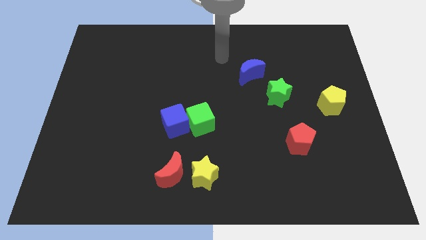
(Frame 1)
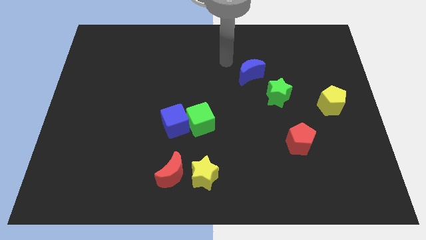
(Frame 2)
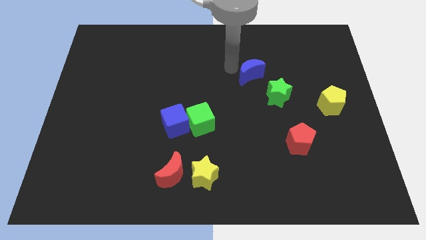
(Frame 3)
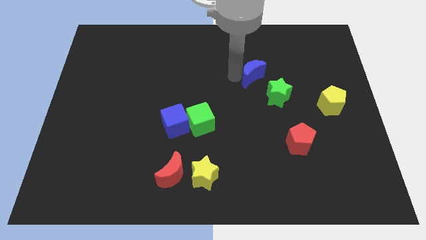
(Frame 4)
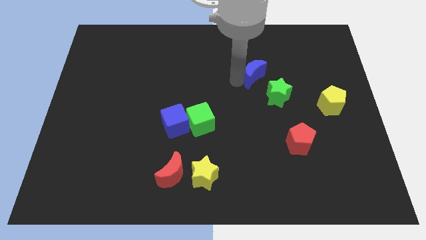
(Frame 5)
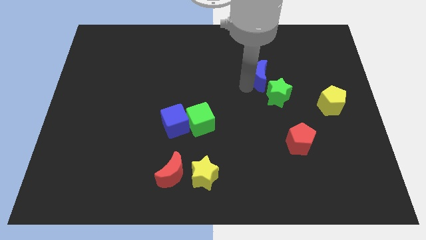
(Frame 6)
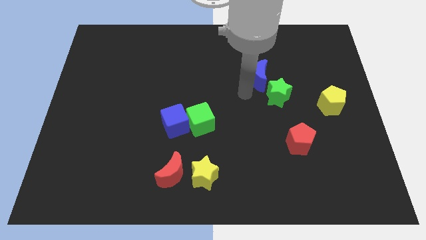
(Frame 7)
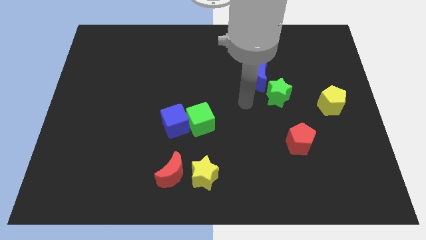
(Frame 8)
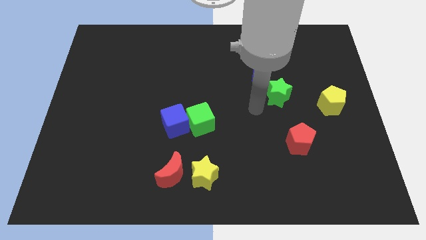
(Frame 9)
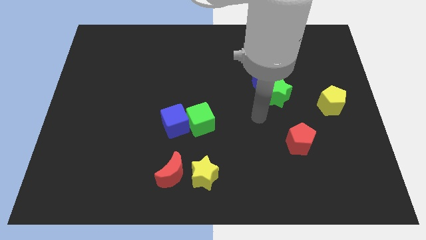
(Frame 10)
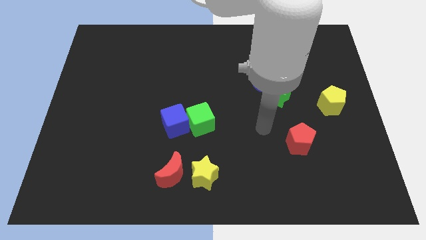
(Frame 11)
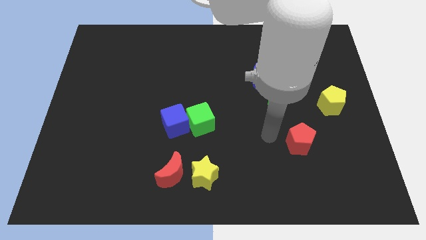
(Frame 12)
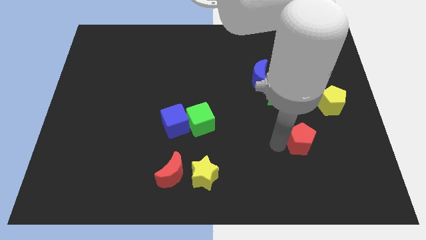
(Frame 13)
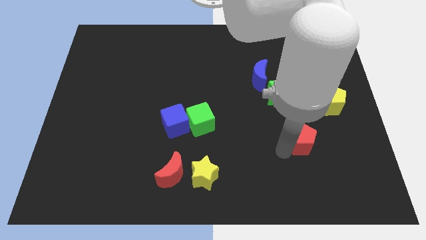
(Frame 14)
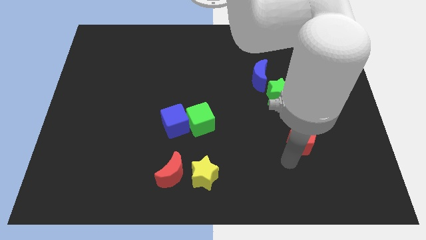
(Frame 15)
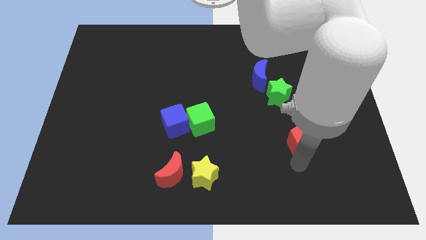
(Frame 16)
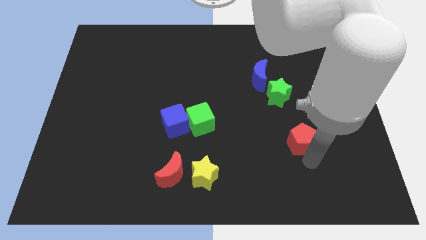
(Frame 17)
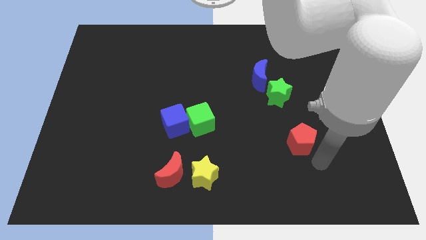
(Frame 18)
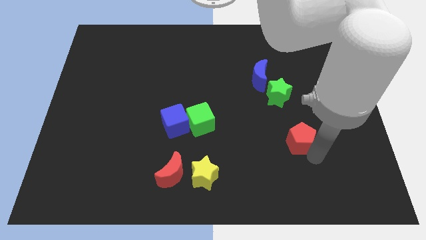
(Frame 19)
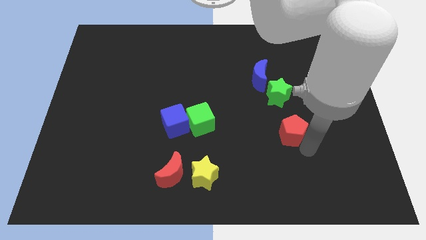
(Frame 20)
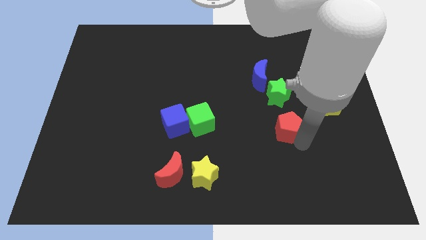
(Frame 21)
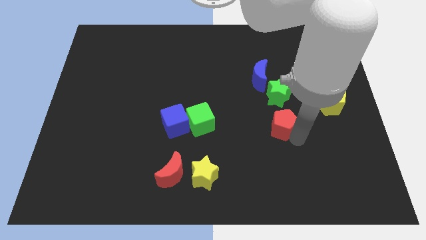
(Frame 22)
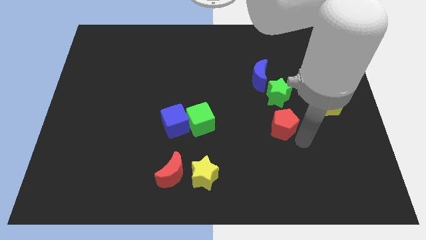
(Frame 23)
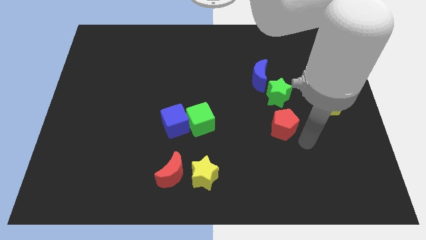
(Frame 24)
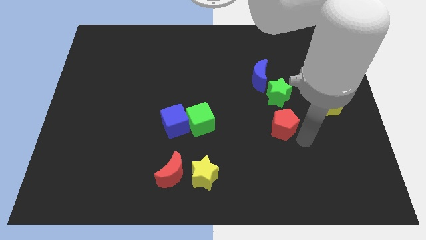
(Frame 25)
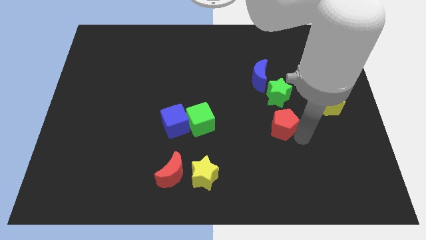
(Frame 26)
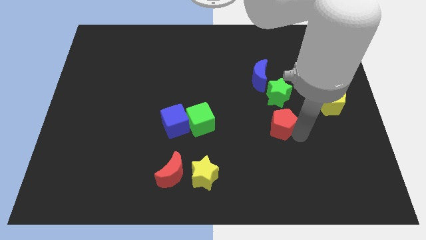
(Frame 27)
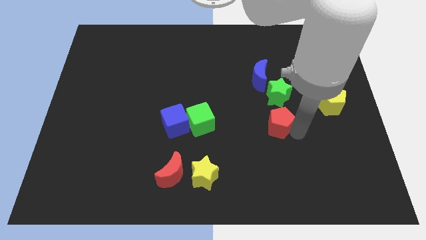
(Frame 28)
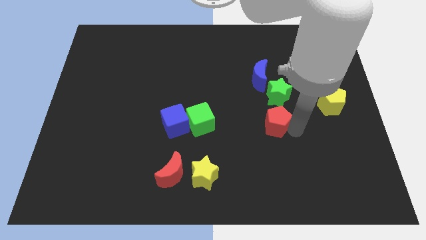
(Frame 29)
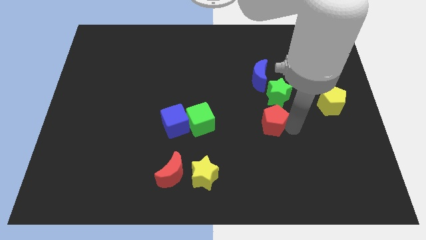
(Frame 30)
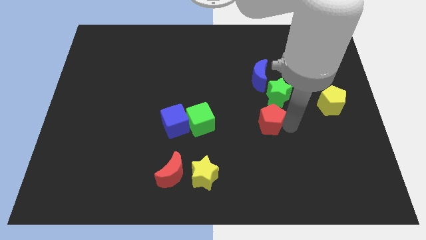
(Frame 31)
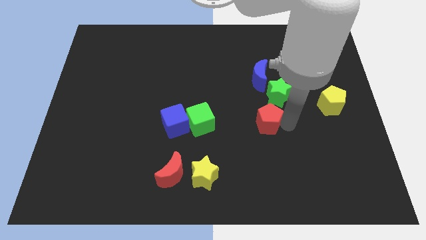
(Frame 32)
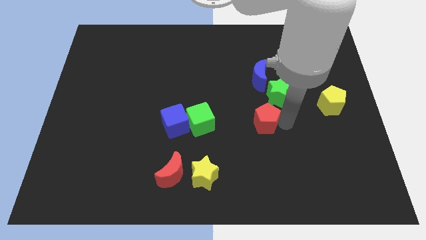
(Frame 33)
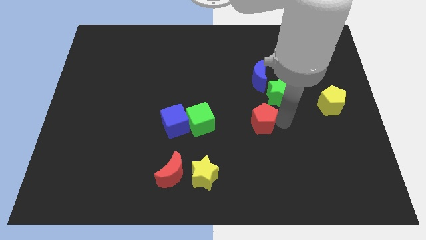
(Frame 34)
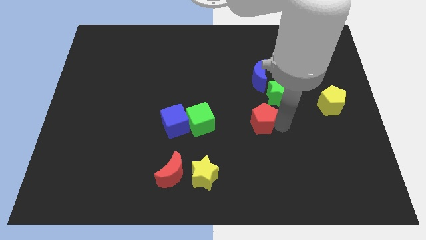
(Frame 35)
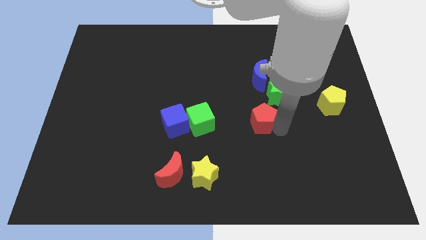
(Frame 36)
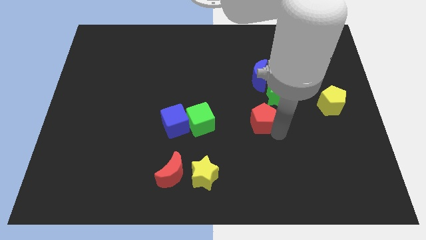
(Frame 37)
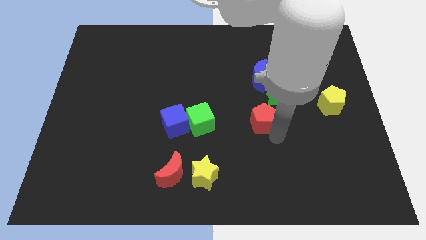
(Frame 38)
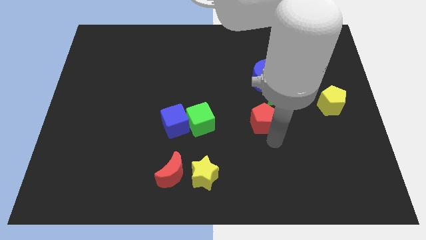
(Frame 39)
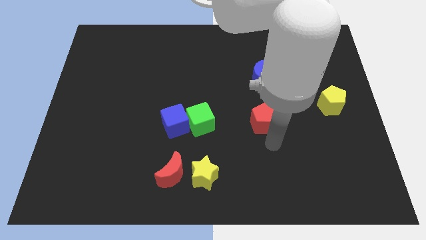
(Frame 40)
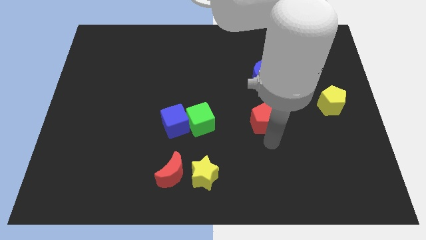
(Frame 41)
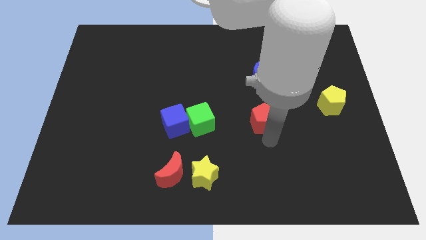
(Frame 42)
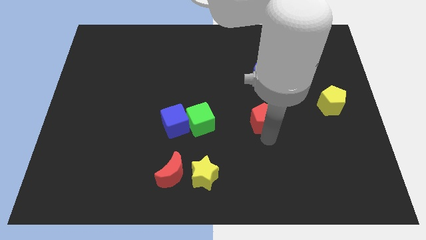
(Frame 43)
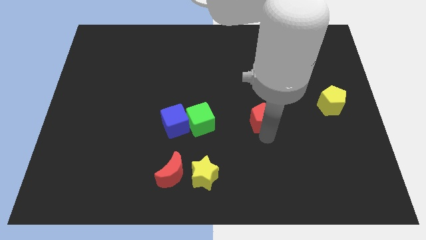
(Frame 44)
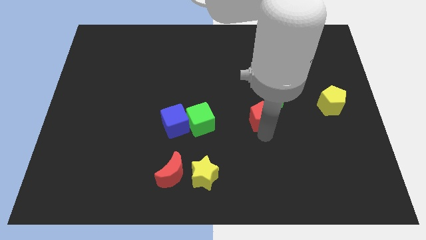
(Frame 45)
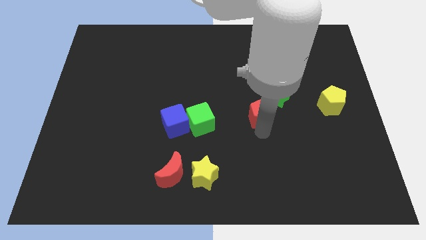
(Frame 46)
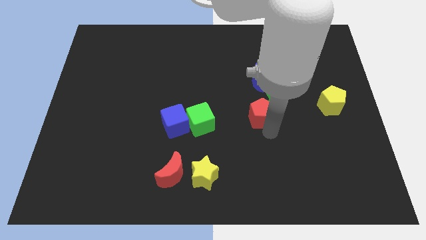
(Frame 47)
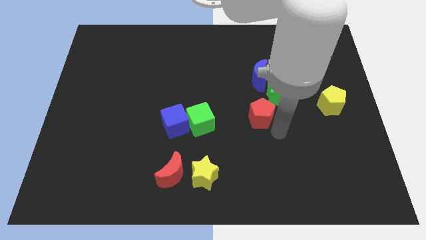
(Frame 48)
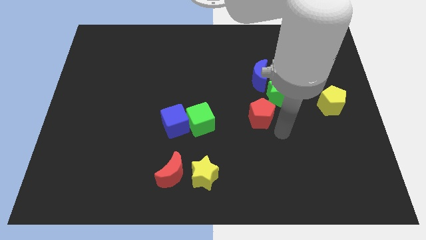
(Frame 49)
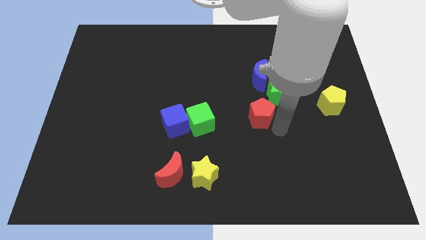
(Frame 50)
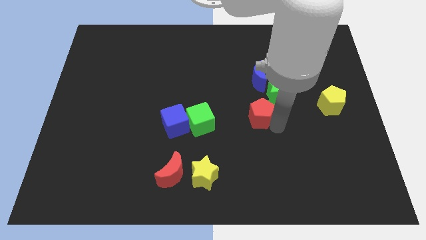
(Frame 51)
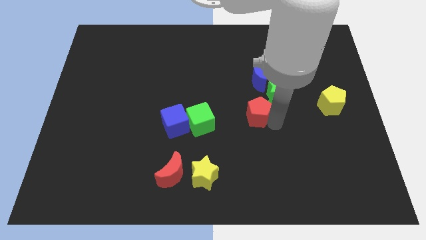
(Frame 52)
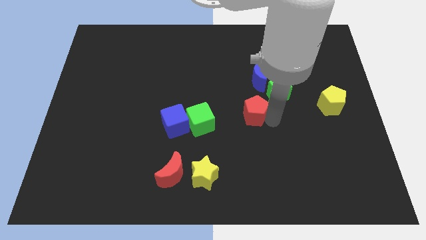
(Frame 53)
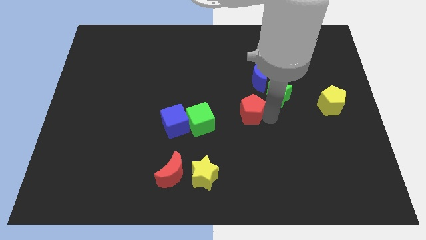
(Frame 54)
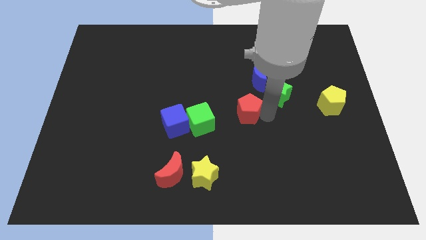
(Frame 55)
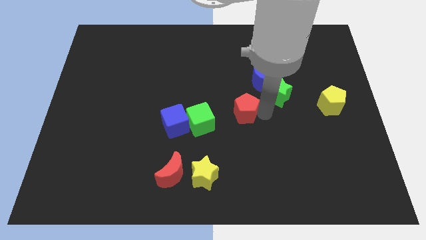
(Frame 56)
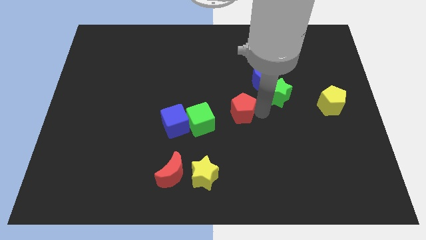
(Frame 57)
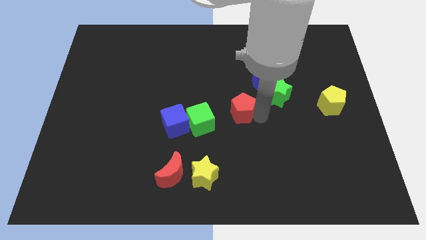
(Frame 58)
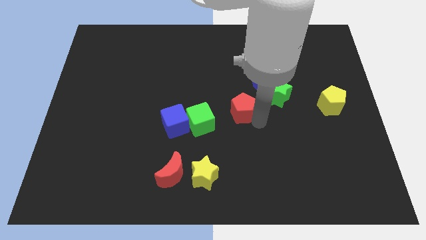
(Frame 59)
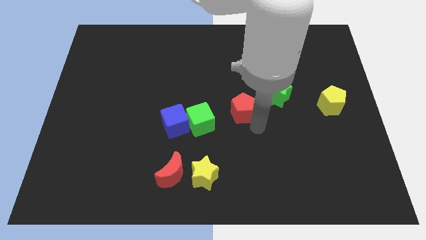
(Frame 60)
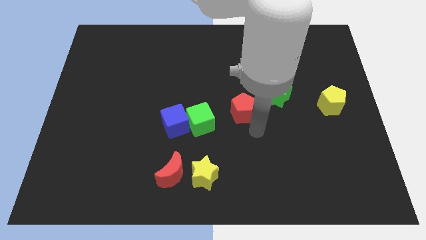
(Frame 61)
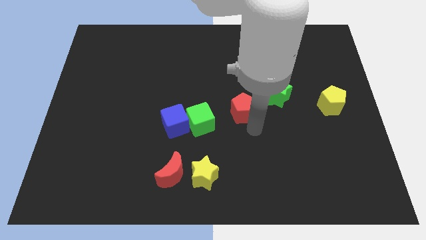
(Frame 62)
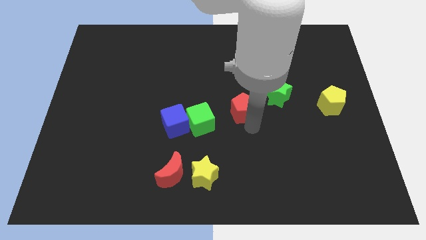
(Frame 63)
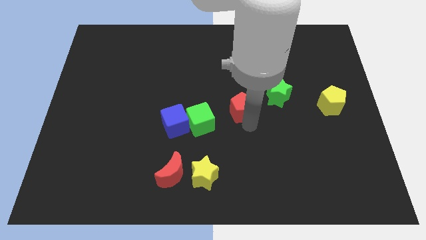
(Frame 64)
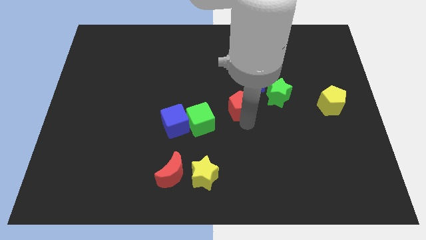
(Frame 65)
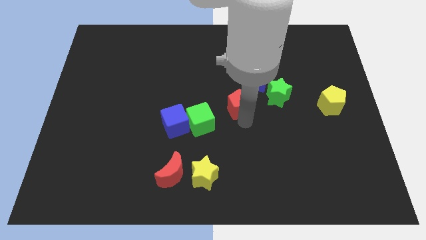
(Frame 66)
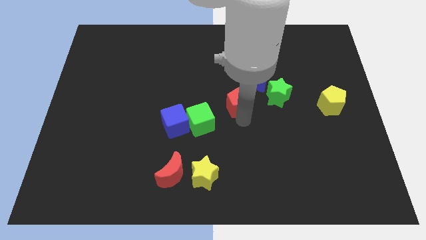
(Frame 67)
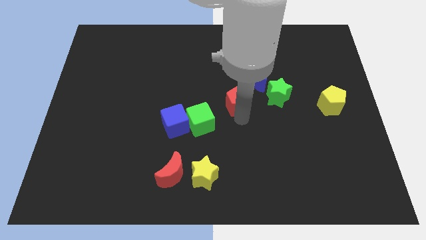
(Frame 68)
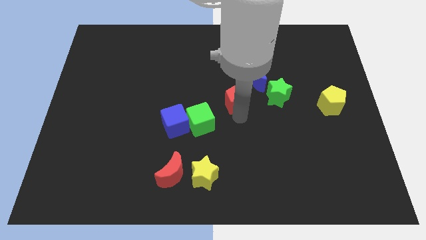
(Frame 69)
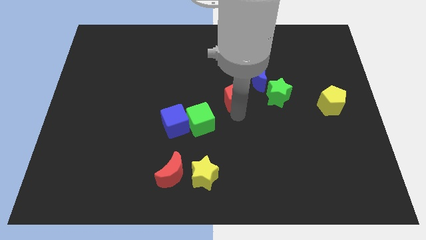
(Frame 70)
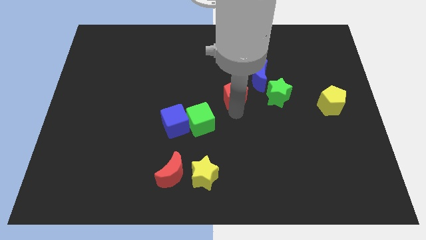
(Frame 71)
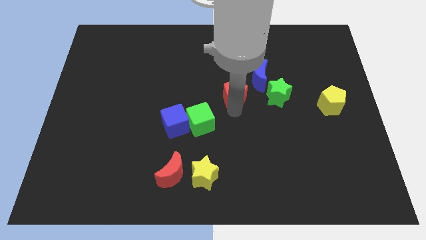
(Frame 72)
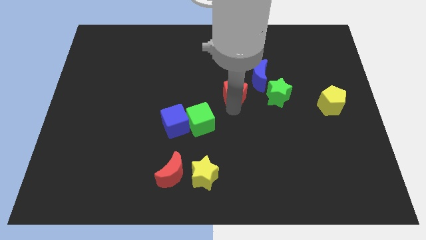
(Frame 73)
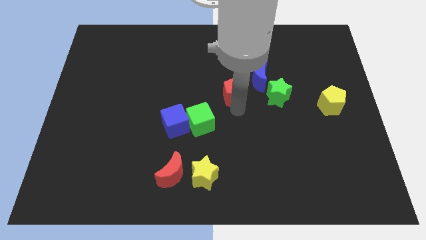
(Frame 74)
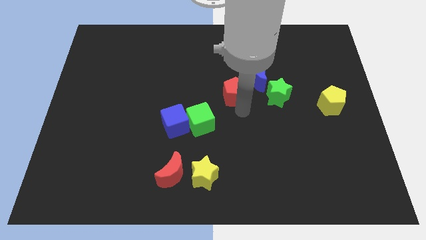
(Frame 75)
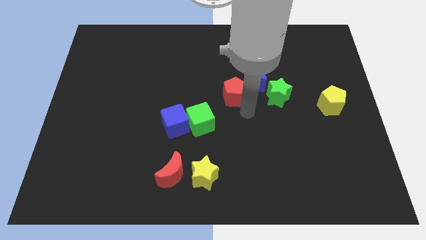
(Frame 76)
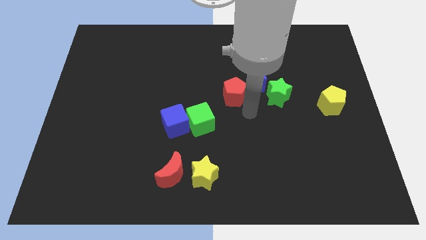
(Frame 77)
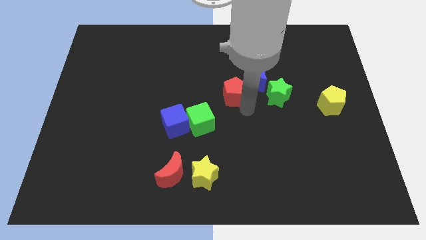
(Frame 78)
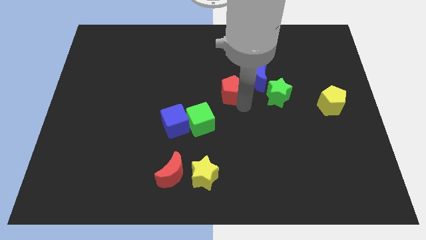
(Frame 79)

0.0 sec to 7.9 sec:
push the red pentagon up and to the left

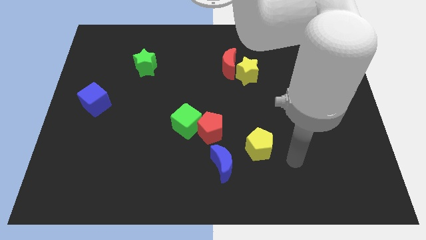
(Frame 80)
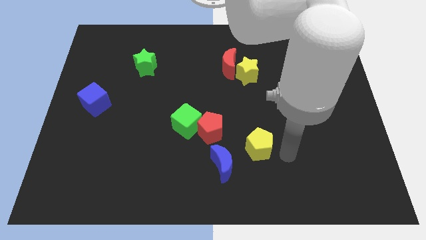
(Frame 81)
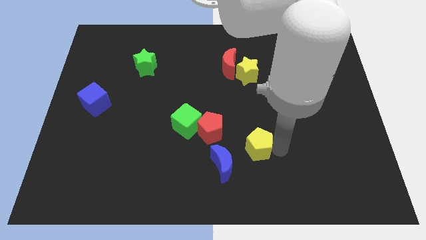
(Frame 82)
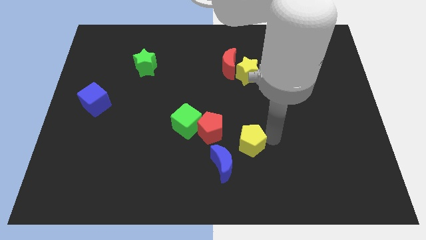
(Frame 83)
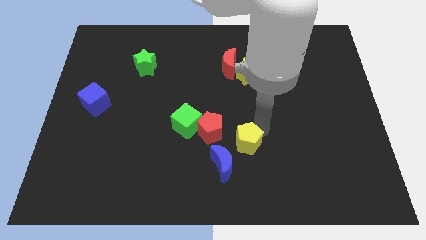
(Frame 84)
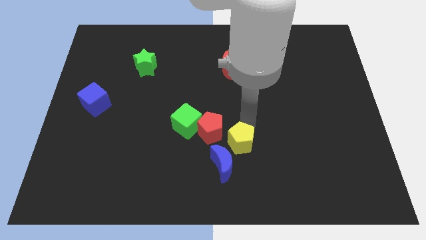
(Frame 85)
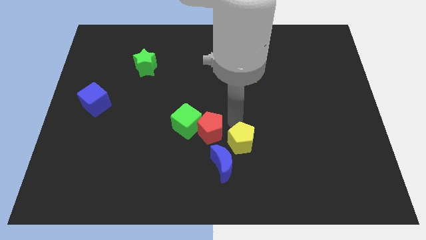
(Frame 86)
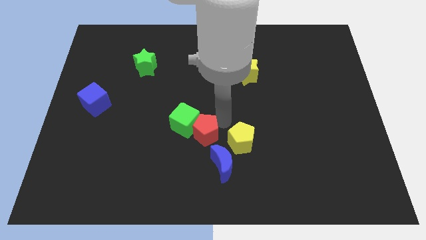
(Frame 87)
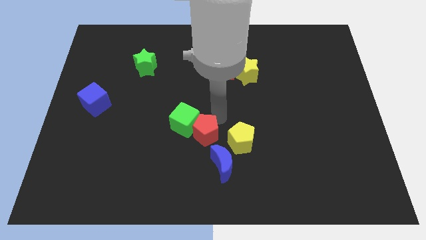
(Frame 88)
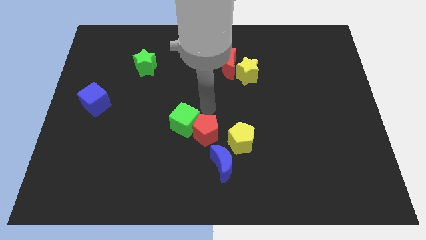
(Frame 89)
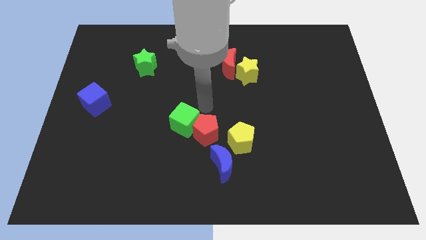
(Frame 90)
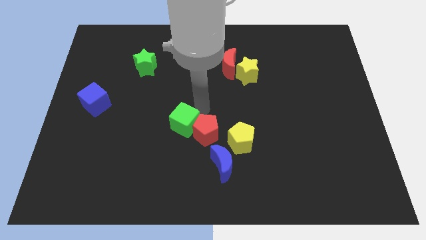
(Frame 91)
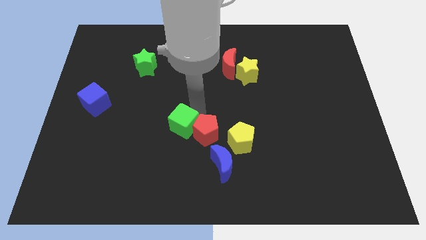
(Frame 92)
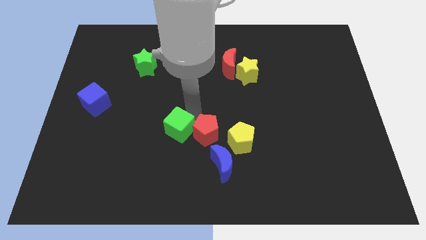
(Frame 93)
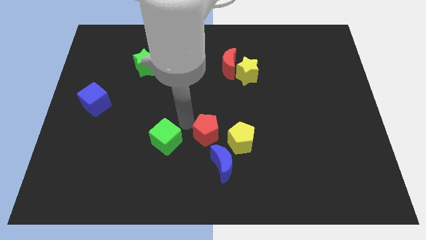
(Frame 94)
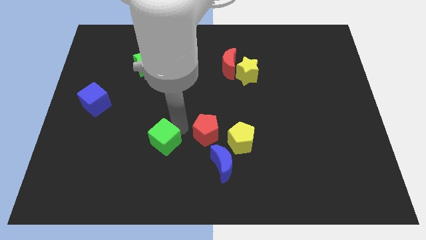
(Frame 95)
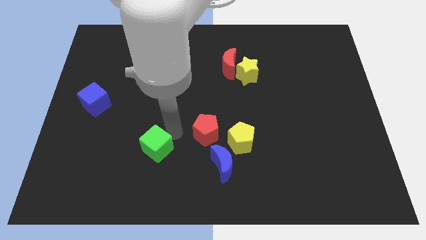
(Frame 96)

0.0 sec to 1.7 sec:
move the green cube downwards and left somewhat
